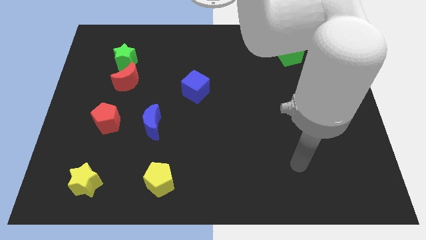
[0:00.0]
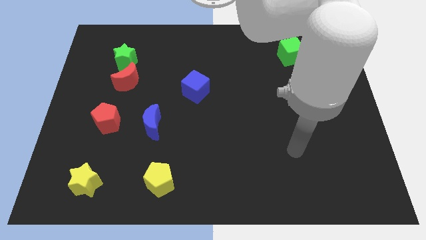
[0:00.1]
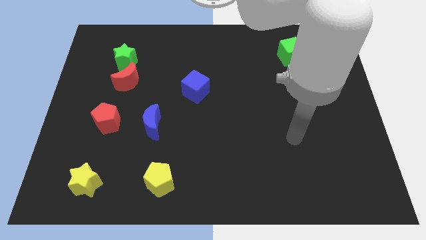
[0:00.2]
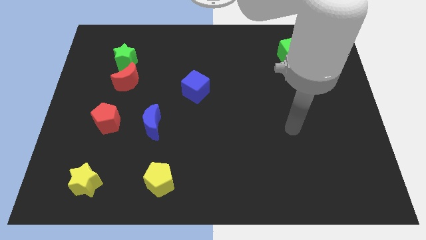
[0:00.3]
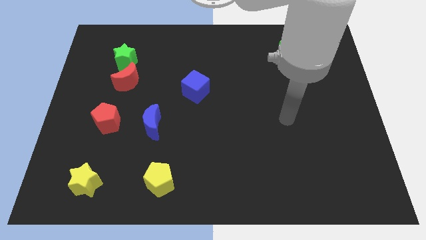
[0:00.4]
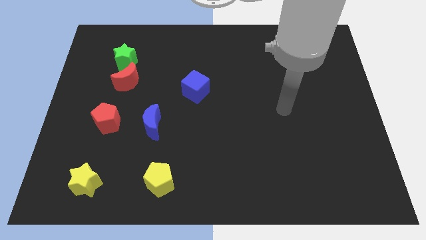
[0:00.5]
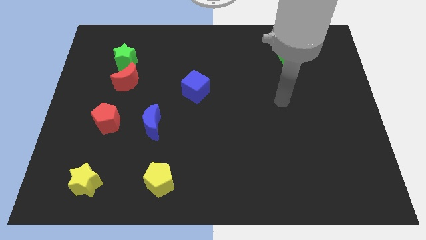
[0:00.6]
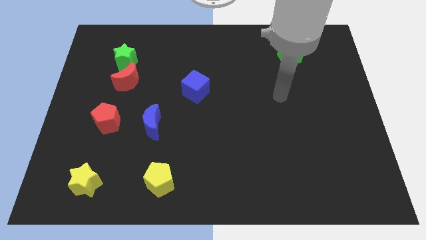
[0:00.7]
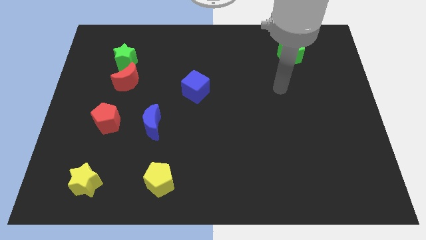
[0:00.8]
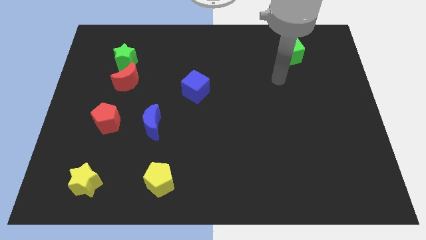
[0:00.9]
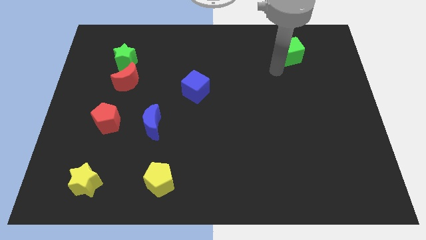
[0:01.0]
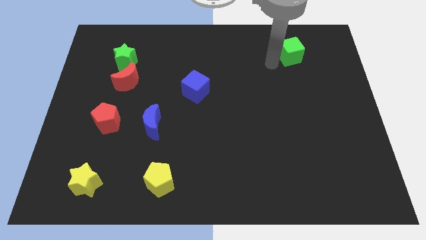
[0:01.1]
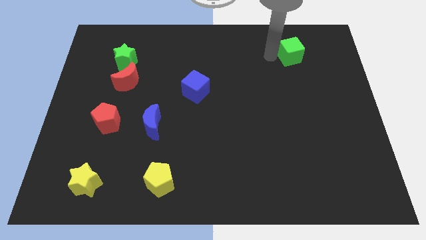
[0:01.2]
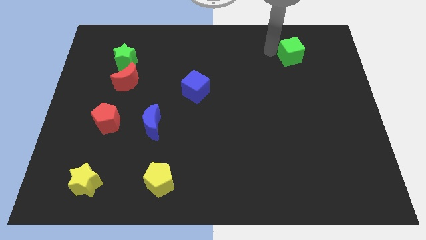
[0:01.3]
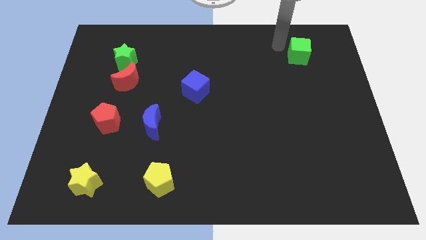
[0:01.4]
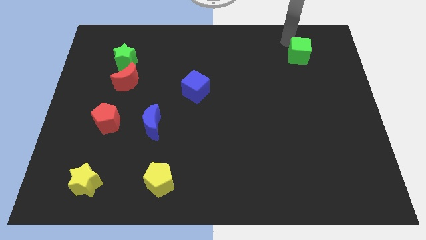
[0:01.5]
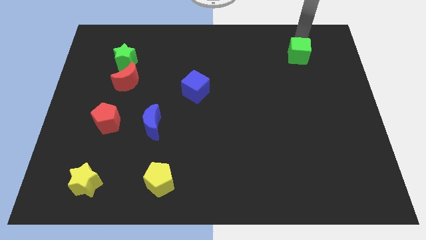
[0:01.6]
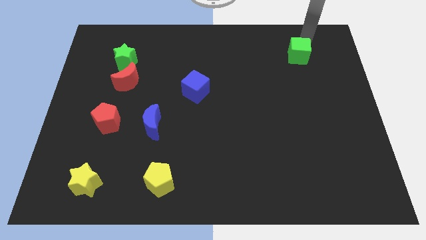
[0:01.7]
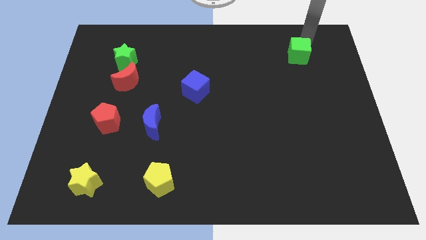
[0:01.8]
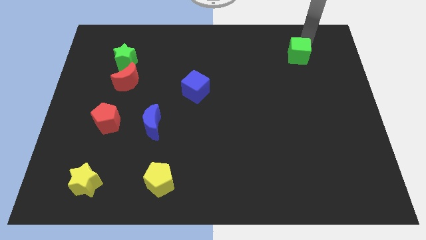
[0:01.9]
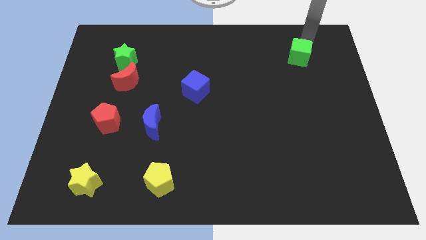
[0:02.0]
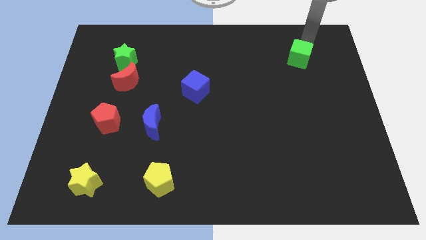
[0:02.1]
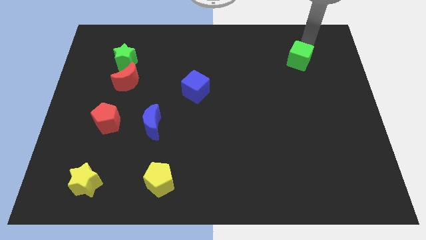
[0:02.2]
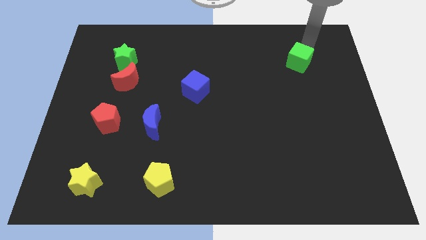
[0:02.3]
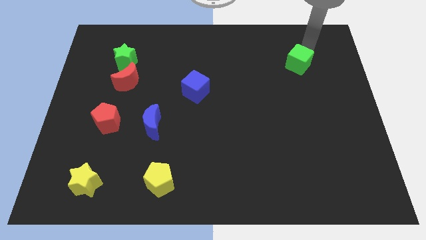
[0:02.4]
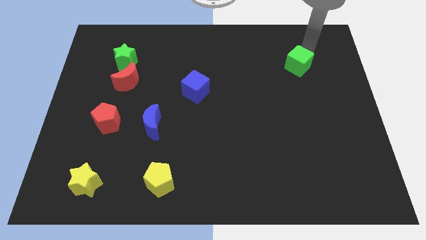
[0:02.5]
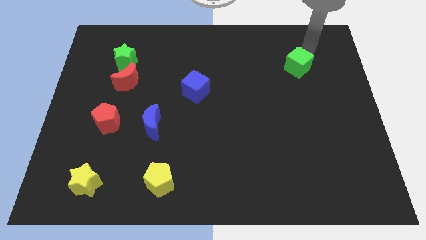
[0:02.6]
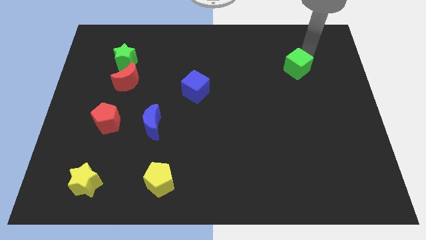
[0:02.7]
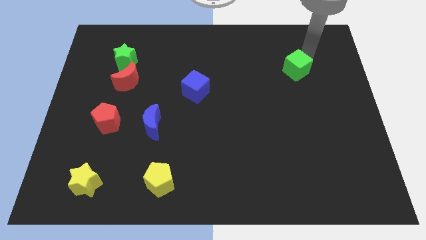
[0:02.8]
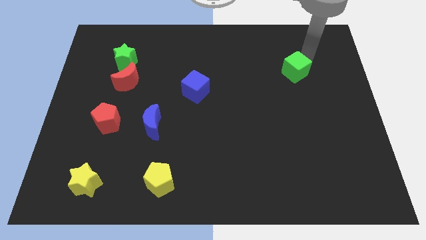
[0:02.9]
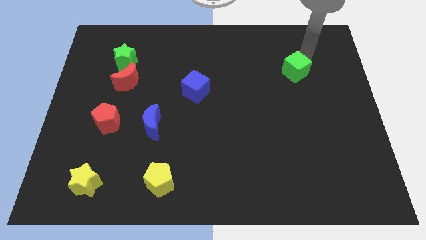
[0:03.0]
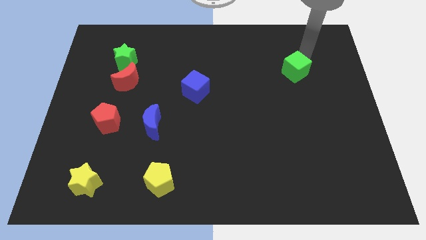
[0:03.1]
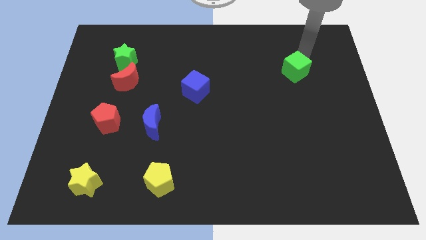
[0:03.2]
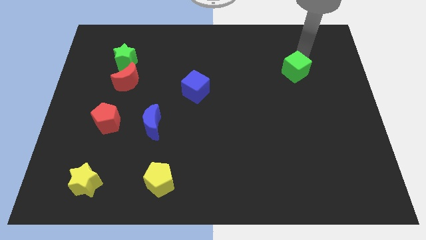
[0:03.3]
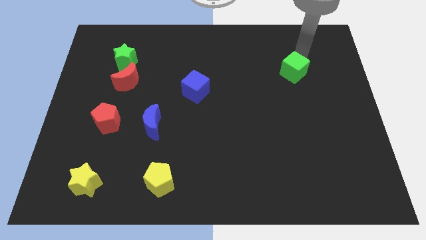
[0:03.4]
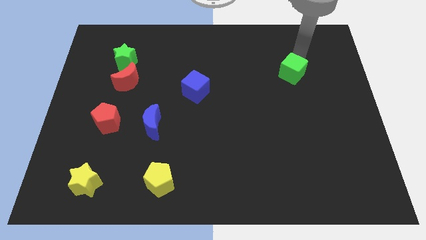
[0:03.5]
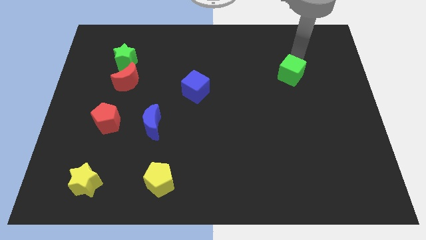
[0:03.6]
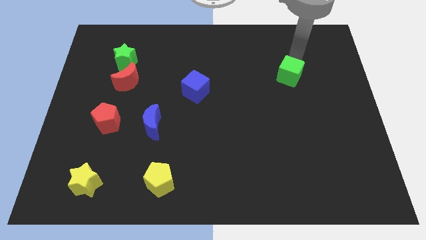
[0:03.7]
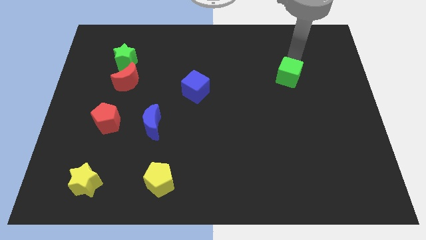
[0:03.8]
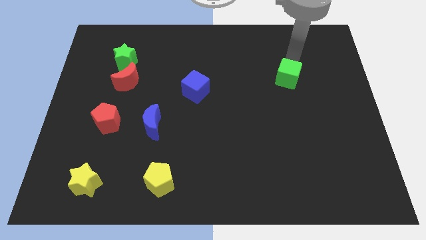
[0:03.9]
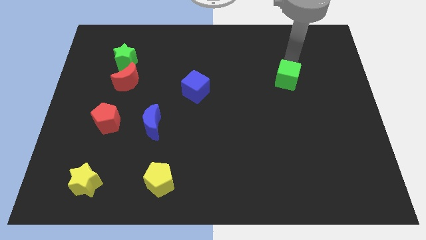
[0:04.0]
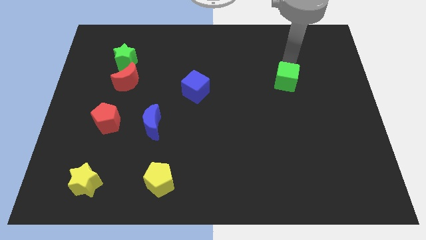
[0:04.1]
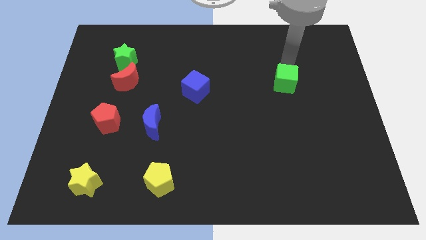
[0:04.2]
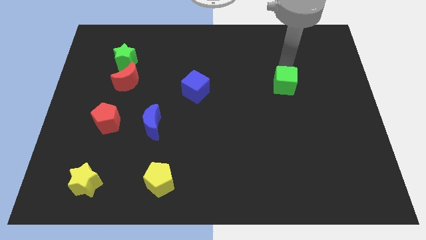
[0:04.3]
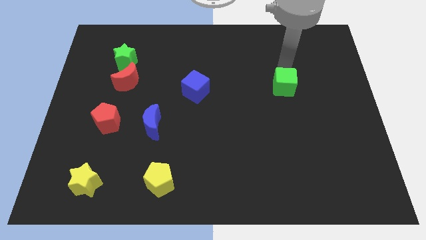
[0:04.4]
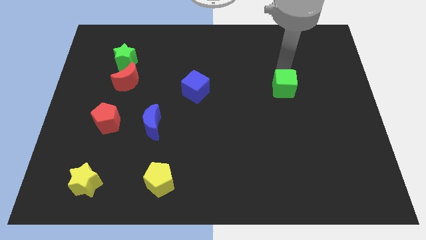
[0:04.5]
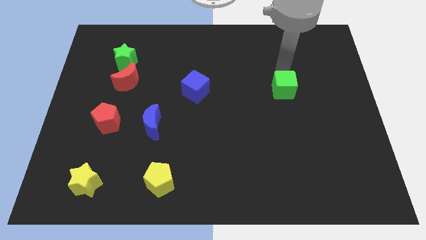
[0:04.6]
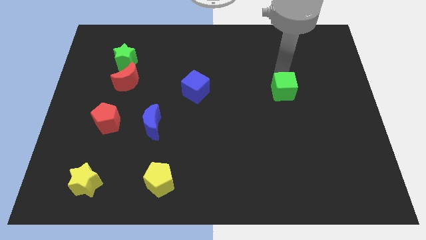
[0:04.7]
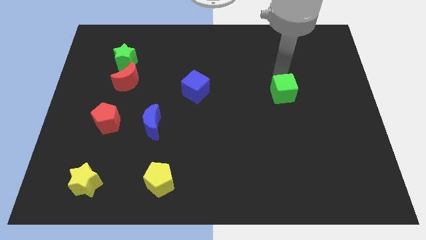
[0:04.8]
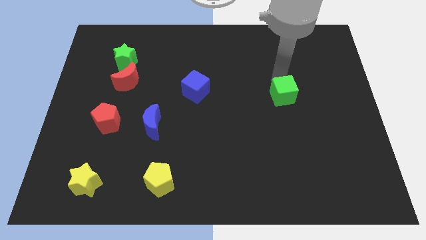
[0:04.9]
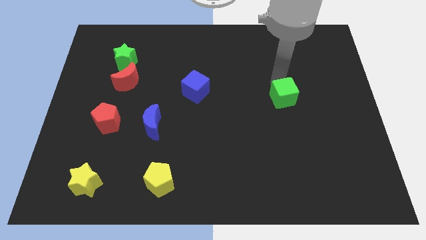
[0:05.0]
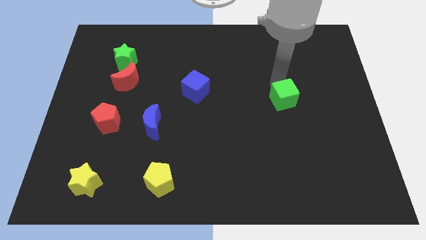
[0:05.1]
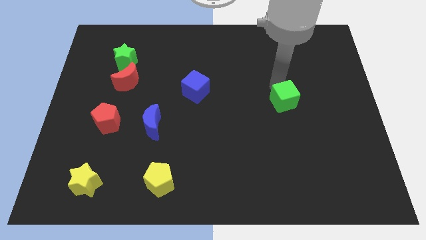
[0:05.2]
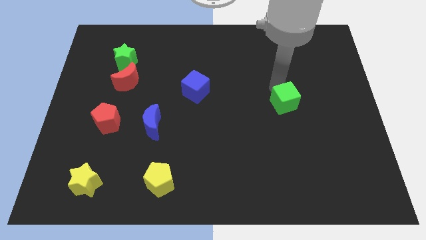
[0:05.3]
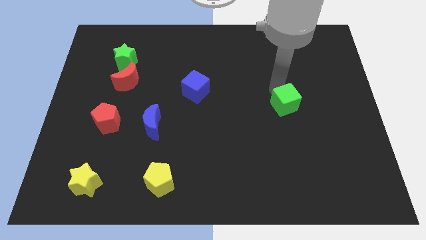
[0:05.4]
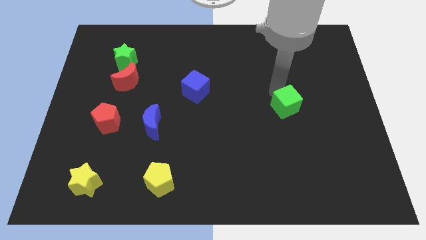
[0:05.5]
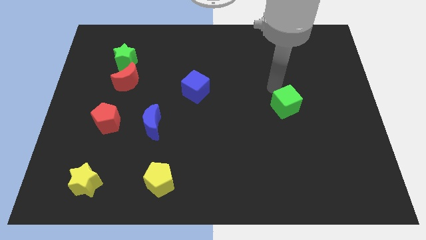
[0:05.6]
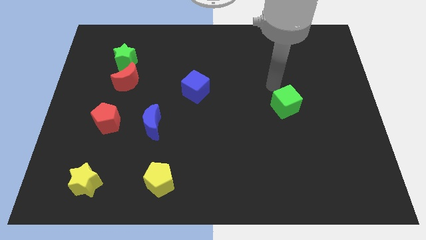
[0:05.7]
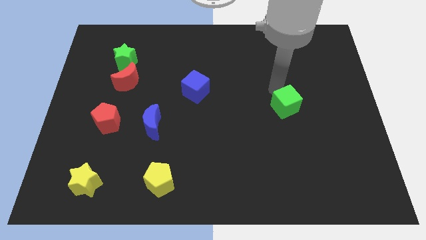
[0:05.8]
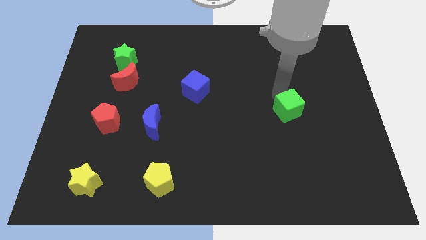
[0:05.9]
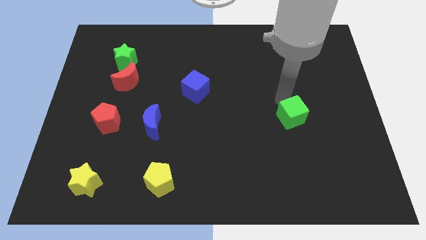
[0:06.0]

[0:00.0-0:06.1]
slide the green cube down

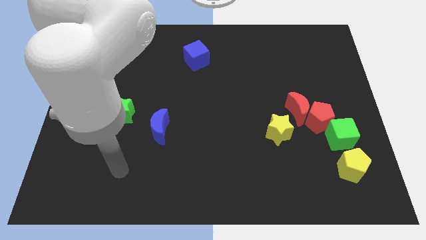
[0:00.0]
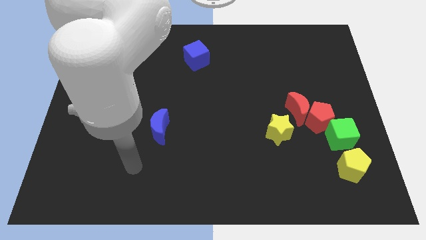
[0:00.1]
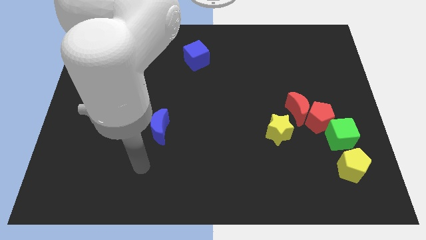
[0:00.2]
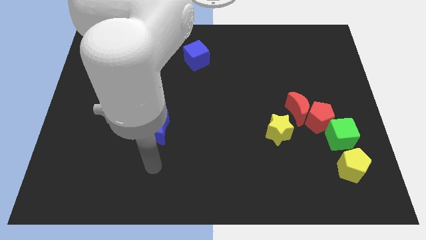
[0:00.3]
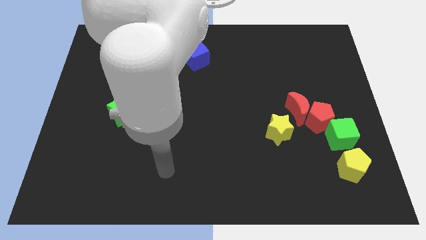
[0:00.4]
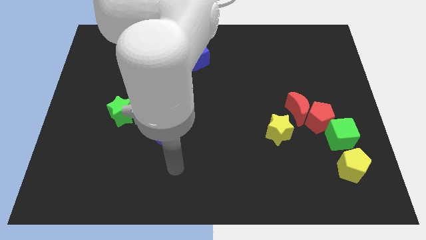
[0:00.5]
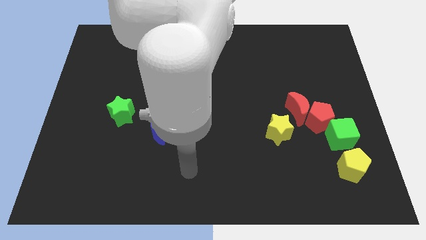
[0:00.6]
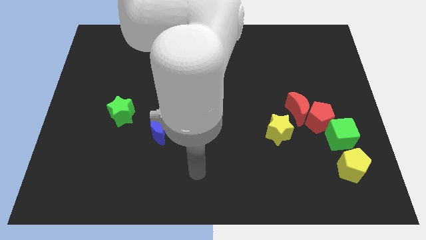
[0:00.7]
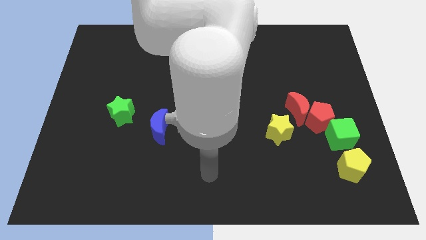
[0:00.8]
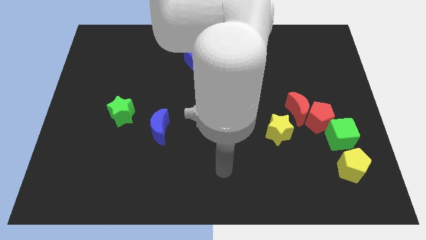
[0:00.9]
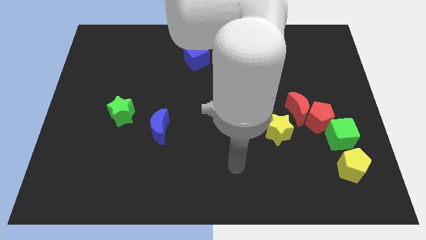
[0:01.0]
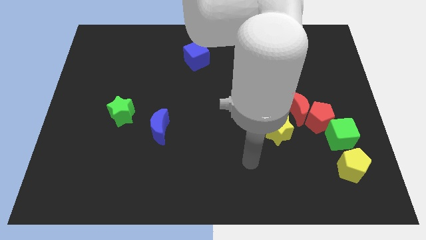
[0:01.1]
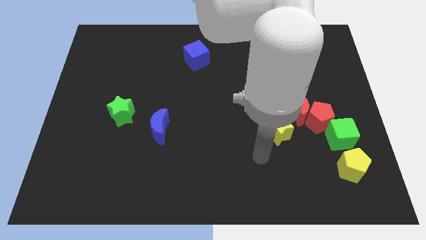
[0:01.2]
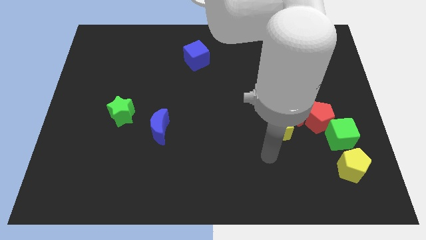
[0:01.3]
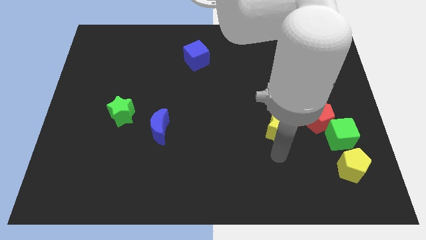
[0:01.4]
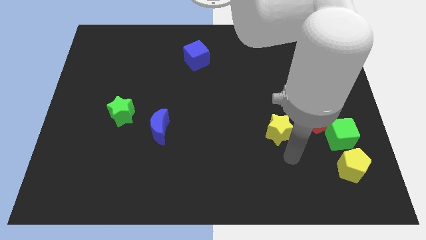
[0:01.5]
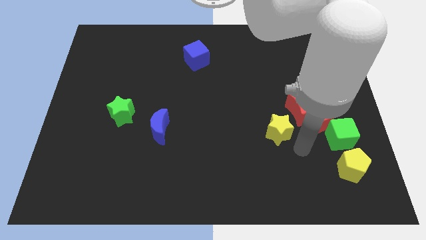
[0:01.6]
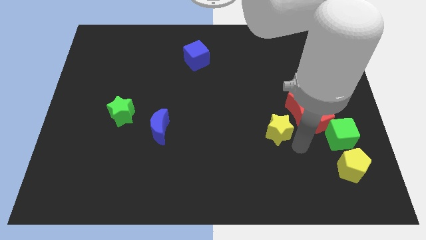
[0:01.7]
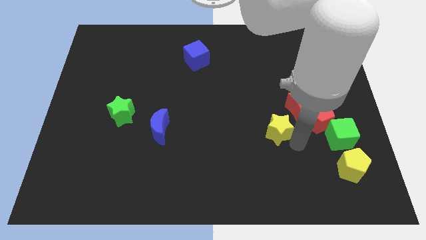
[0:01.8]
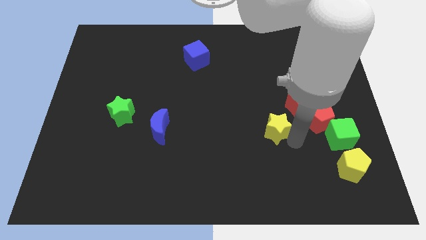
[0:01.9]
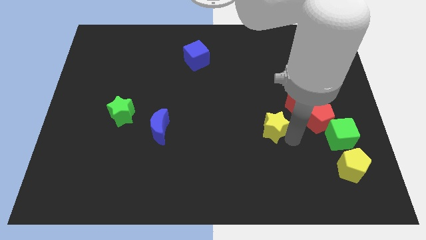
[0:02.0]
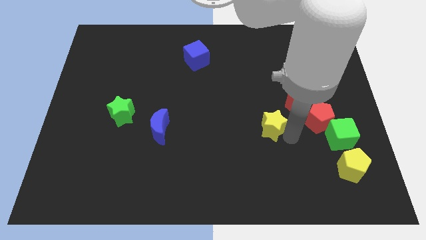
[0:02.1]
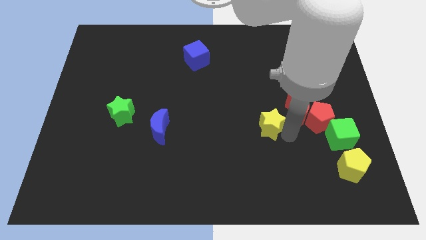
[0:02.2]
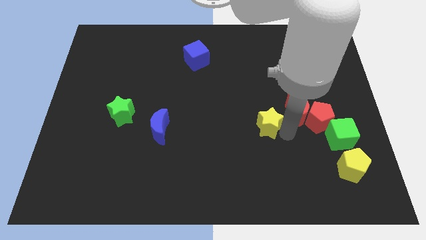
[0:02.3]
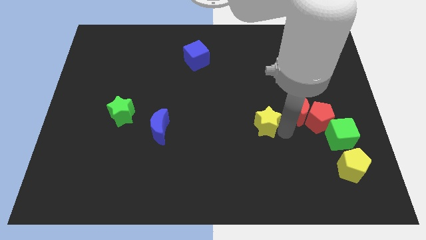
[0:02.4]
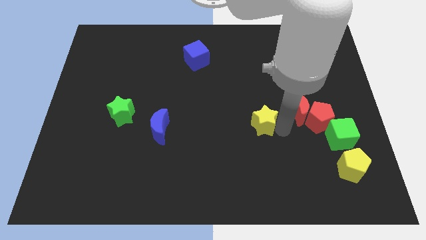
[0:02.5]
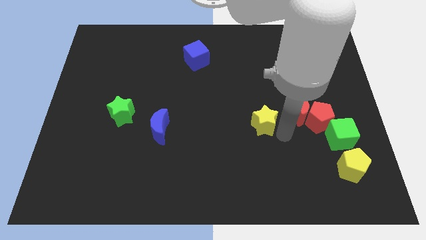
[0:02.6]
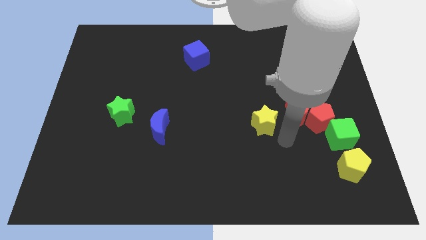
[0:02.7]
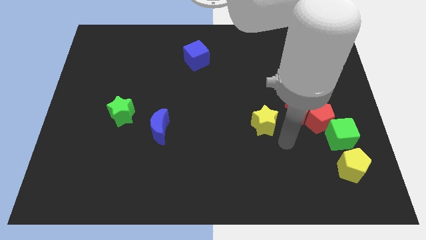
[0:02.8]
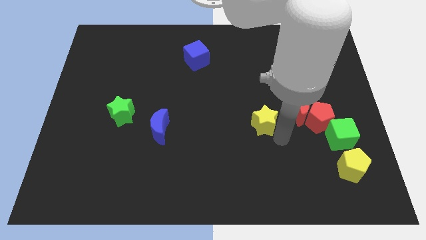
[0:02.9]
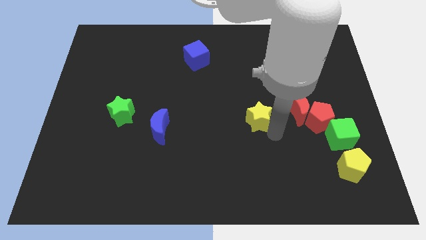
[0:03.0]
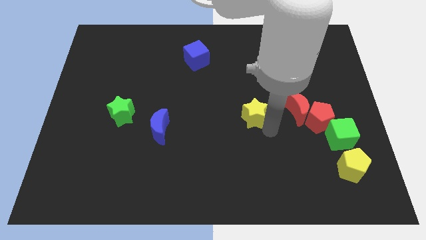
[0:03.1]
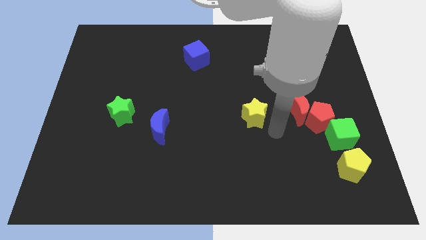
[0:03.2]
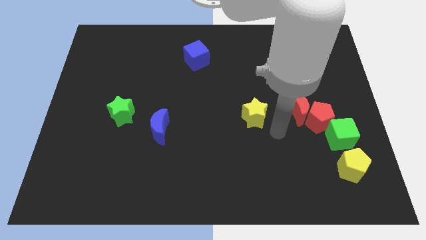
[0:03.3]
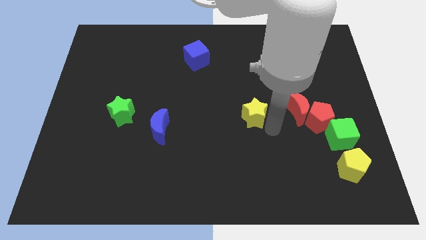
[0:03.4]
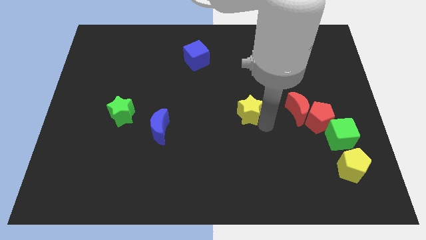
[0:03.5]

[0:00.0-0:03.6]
slide the yellow star upwards and then left somewhat
